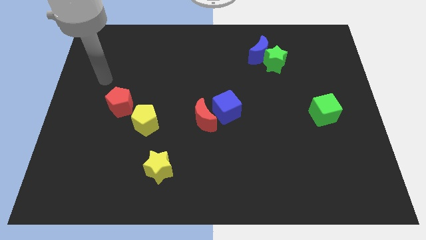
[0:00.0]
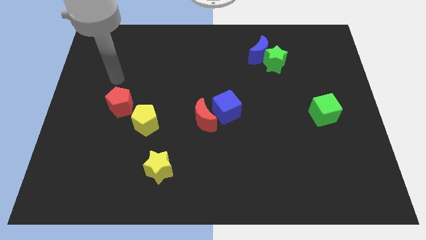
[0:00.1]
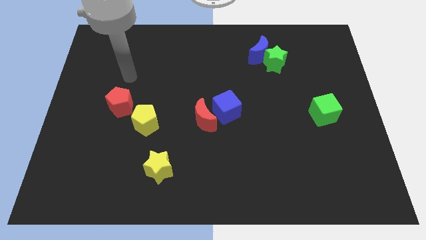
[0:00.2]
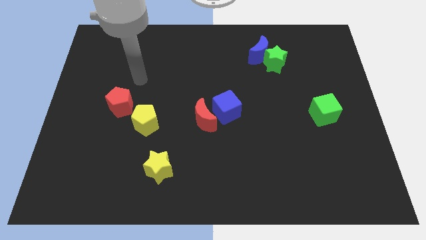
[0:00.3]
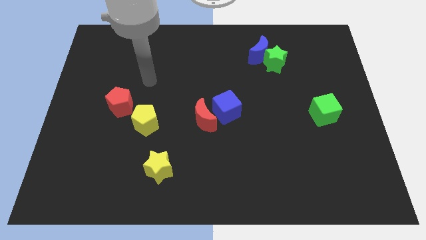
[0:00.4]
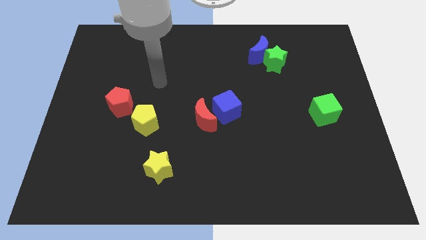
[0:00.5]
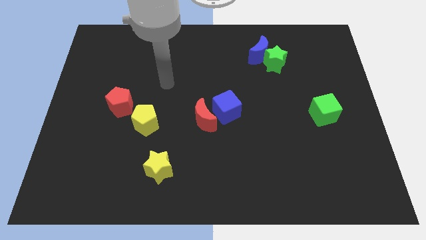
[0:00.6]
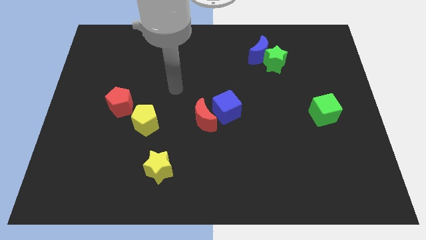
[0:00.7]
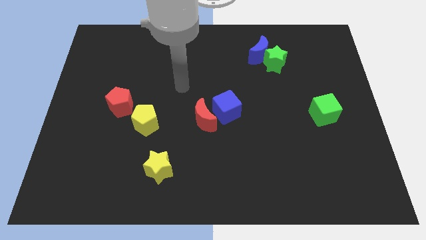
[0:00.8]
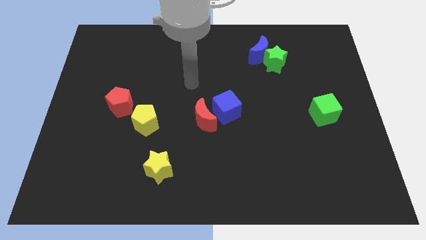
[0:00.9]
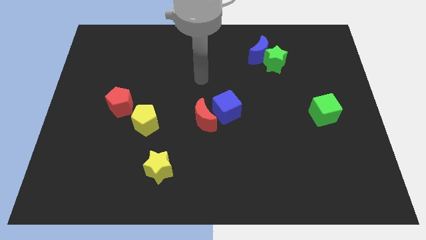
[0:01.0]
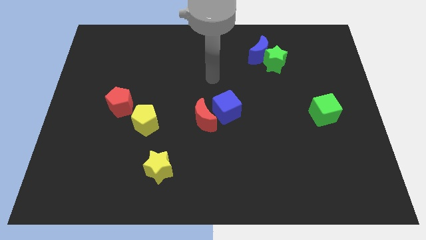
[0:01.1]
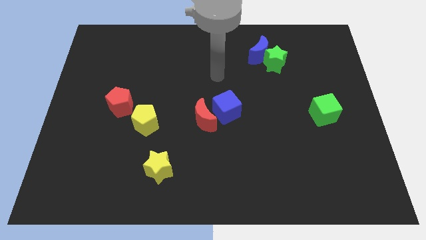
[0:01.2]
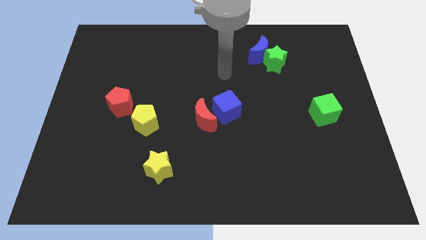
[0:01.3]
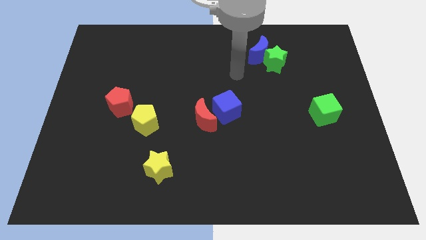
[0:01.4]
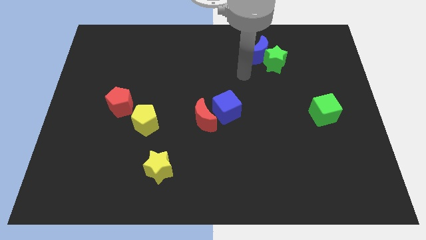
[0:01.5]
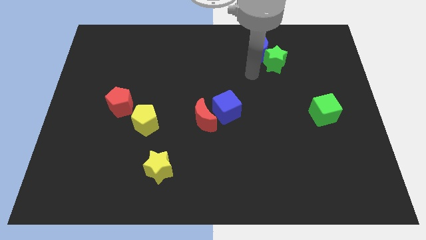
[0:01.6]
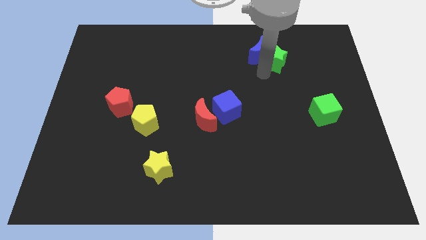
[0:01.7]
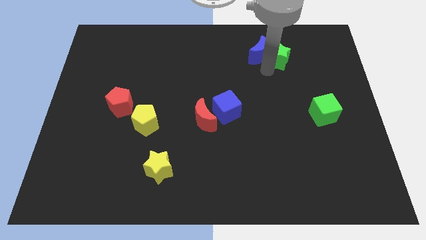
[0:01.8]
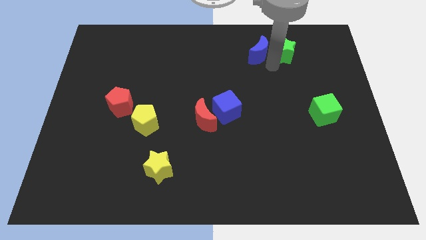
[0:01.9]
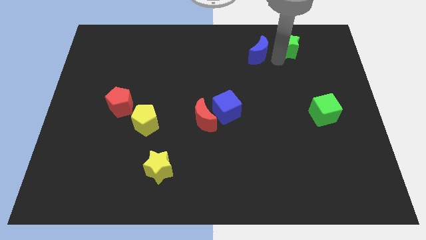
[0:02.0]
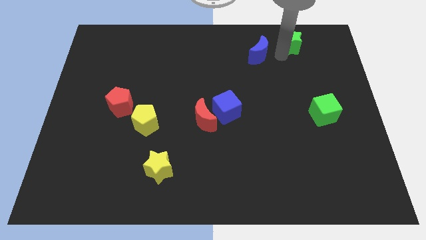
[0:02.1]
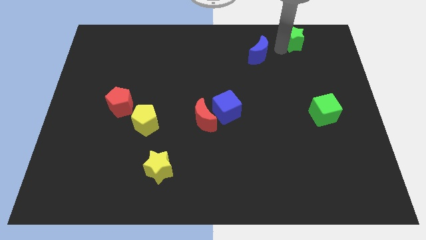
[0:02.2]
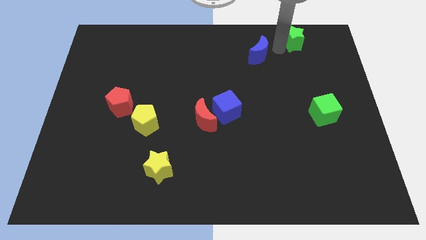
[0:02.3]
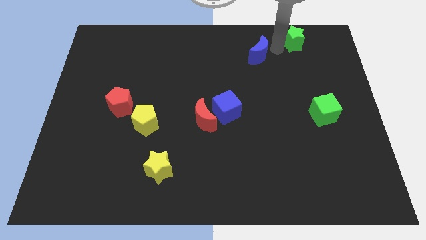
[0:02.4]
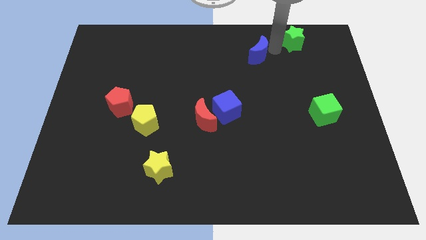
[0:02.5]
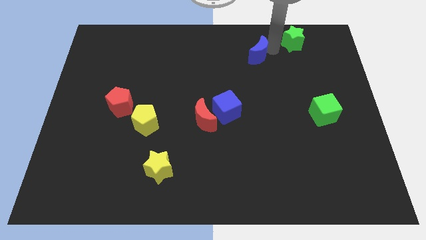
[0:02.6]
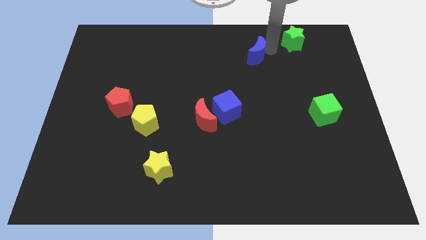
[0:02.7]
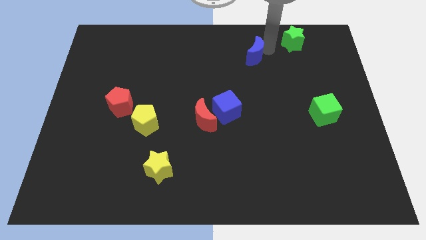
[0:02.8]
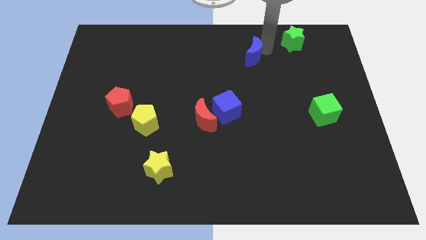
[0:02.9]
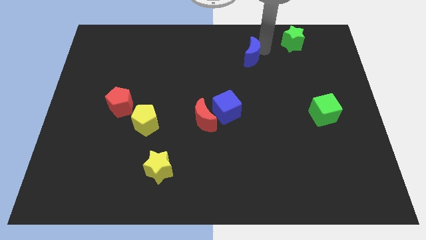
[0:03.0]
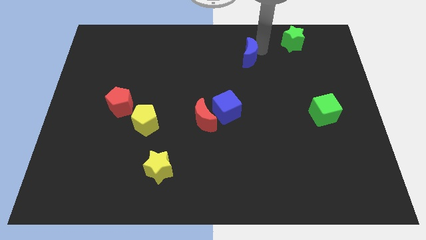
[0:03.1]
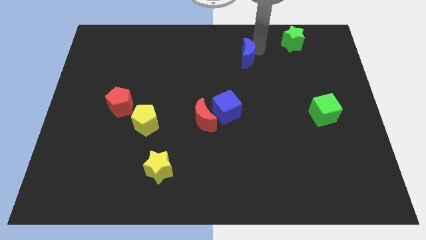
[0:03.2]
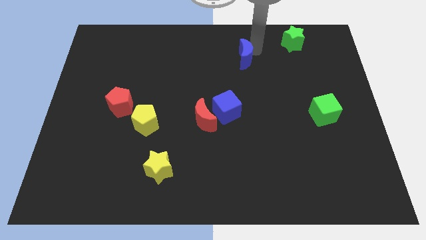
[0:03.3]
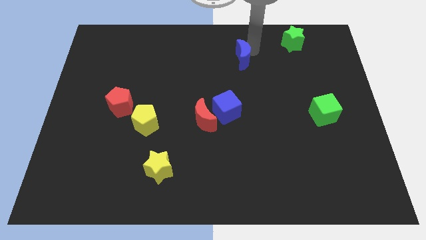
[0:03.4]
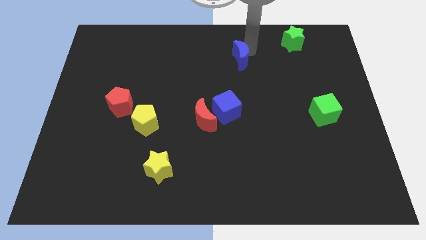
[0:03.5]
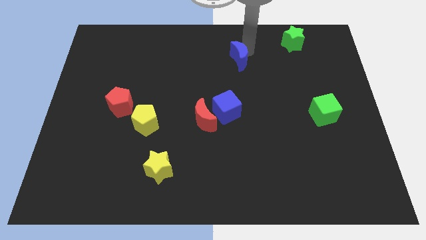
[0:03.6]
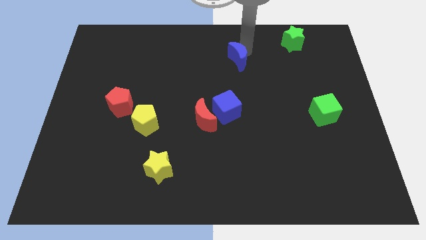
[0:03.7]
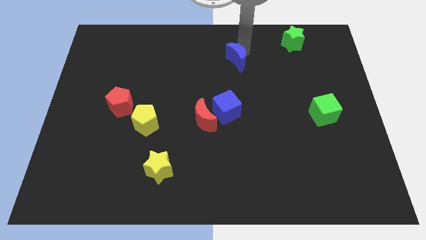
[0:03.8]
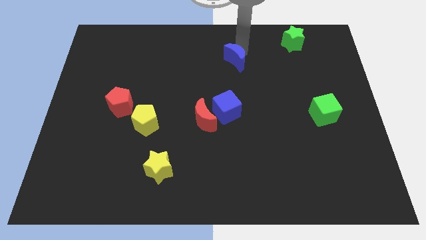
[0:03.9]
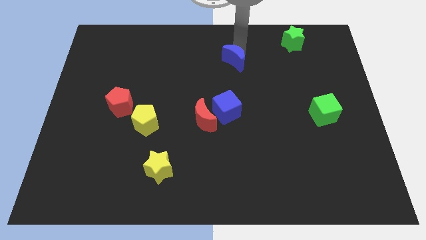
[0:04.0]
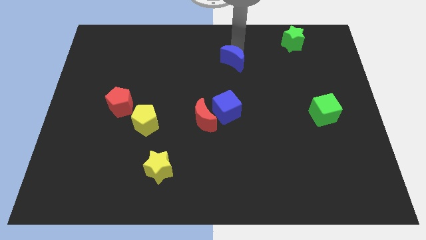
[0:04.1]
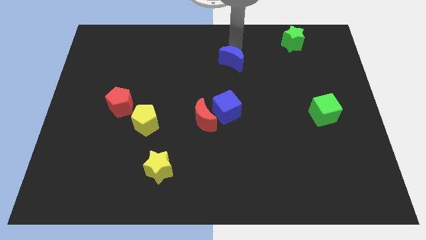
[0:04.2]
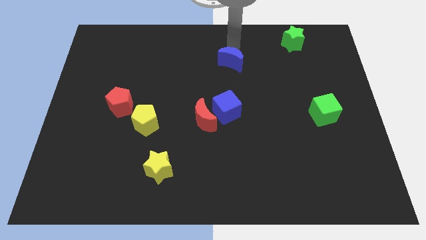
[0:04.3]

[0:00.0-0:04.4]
slide the blue moon a bit diagonally downwards and left

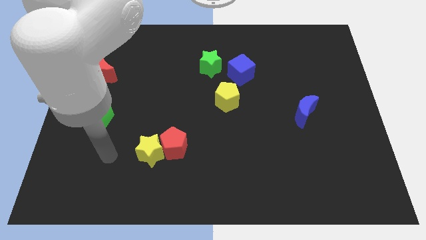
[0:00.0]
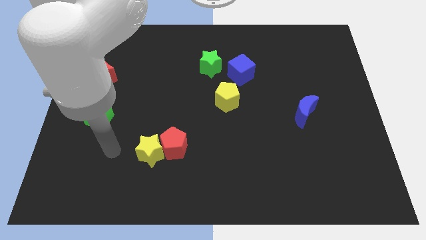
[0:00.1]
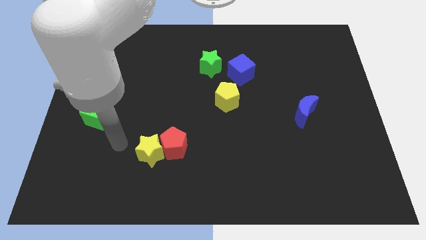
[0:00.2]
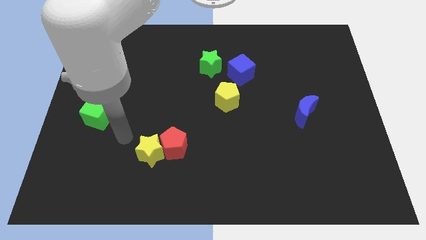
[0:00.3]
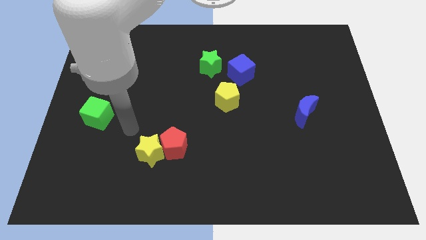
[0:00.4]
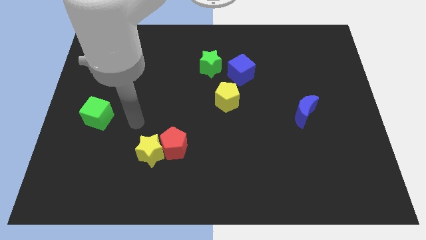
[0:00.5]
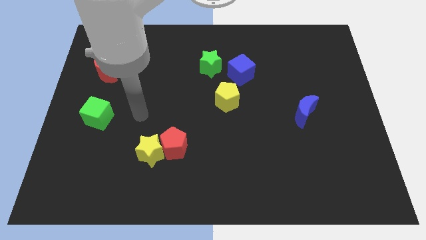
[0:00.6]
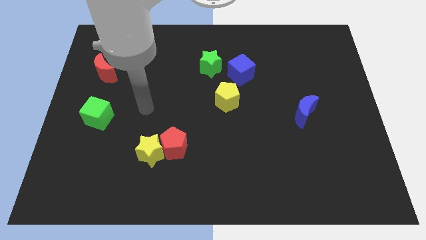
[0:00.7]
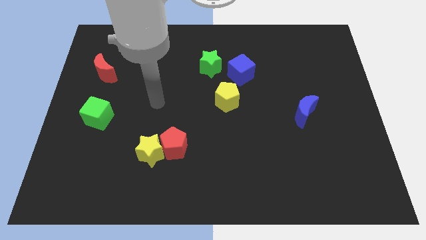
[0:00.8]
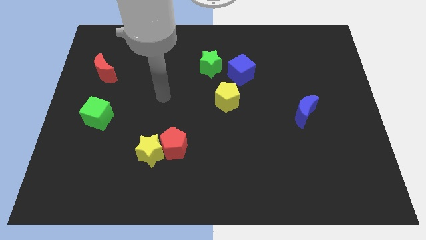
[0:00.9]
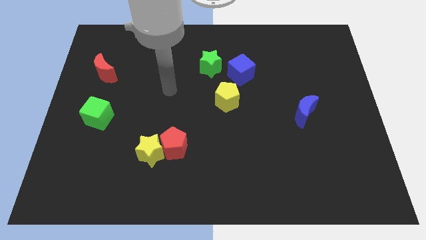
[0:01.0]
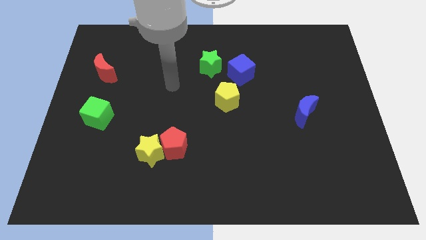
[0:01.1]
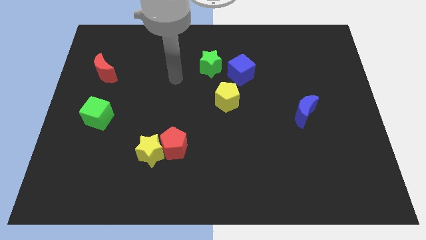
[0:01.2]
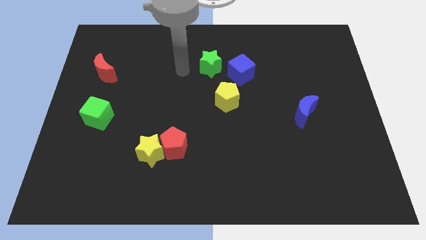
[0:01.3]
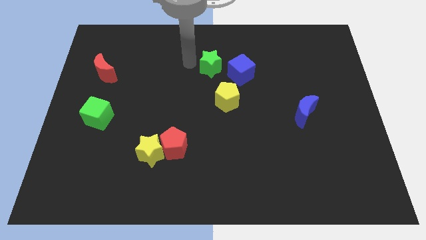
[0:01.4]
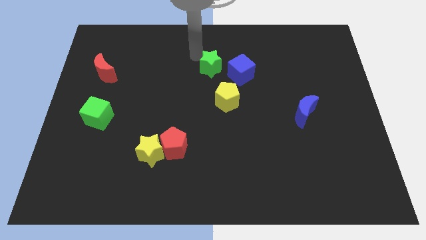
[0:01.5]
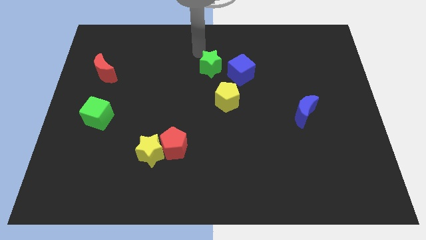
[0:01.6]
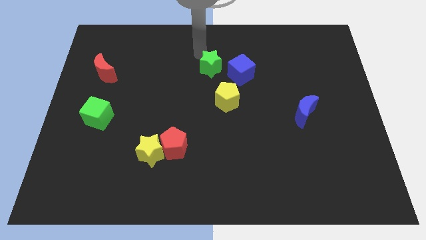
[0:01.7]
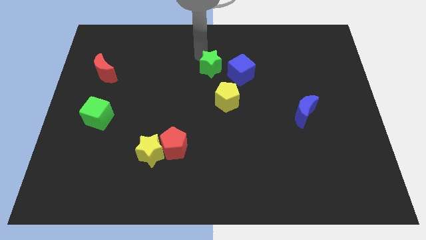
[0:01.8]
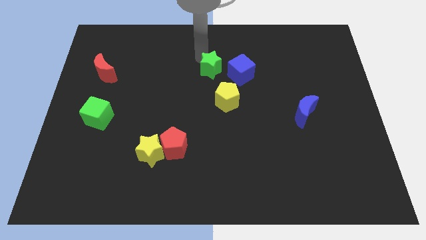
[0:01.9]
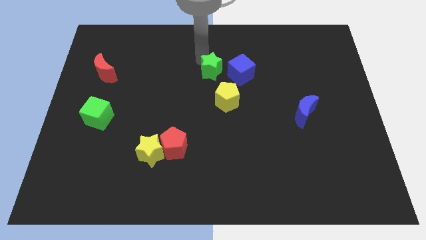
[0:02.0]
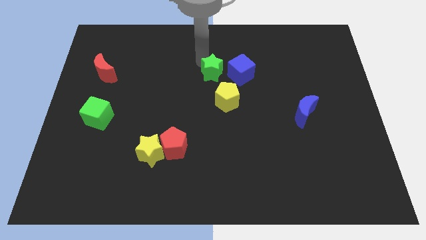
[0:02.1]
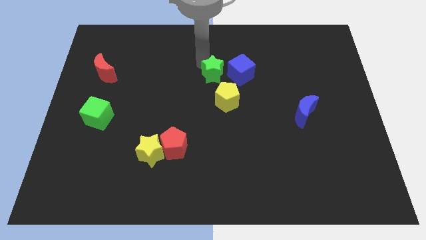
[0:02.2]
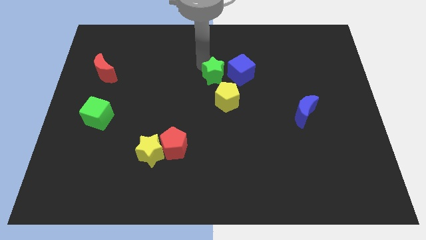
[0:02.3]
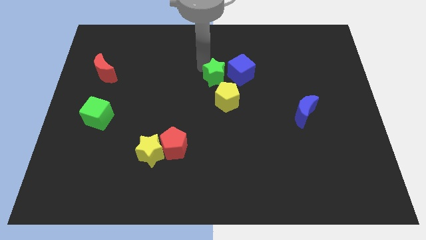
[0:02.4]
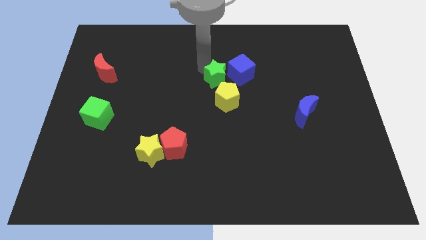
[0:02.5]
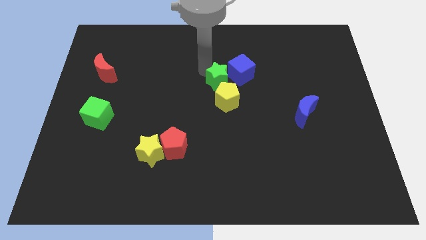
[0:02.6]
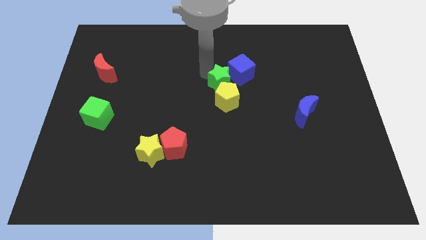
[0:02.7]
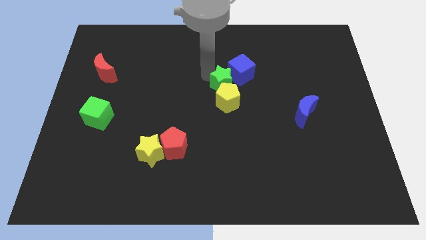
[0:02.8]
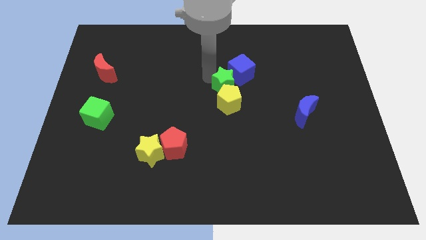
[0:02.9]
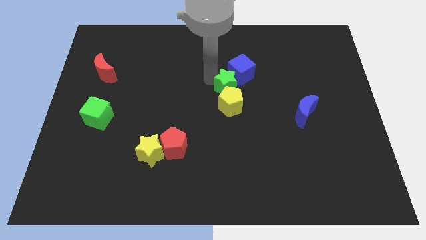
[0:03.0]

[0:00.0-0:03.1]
slightly push the green star downwards and right

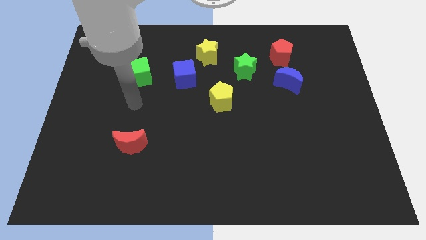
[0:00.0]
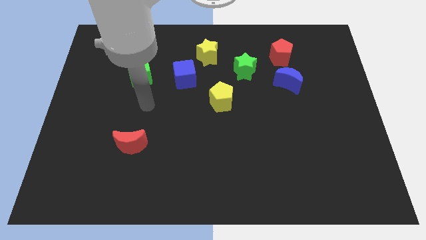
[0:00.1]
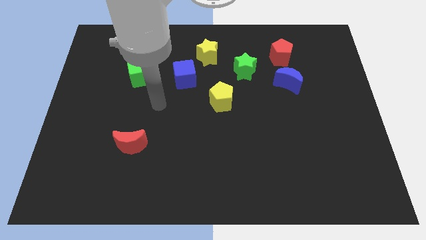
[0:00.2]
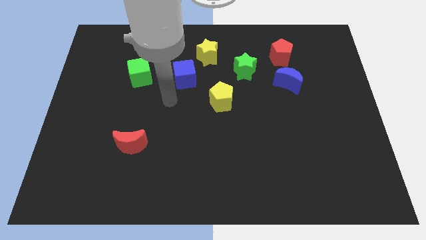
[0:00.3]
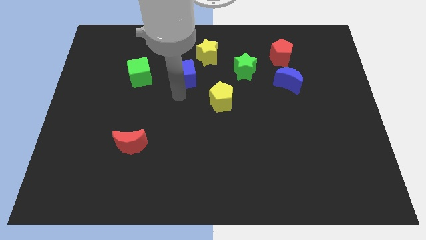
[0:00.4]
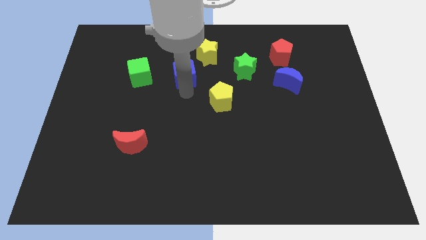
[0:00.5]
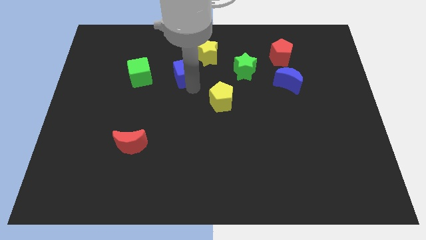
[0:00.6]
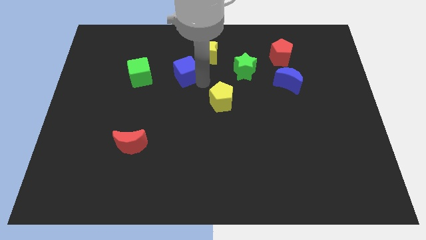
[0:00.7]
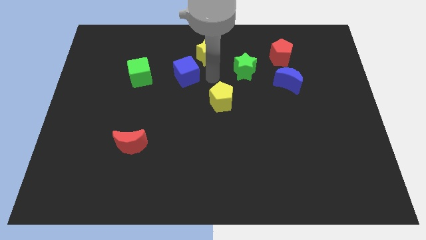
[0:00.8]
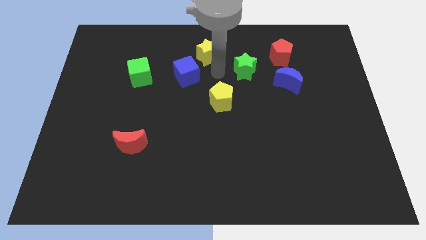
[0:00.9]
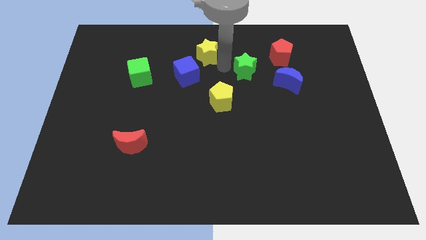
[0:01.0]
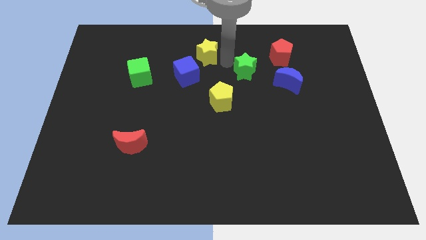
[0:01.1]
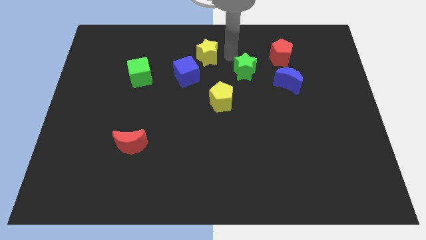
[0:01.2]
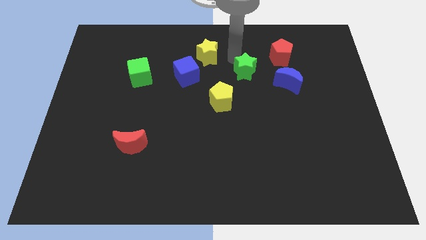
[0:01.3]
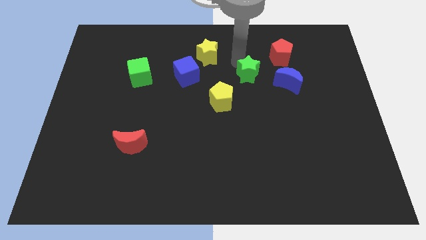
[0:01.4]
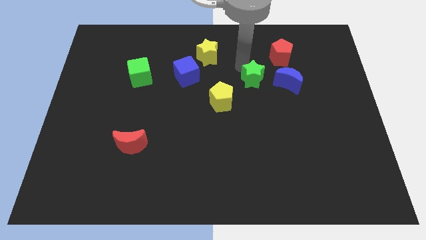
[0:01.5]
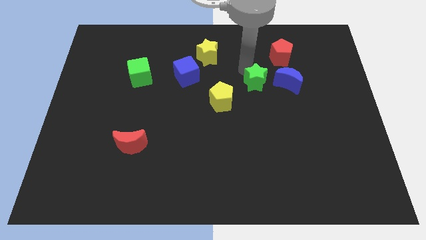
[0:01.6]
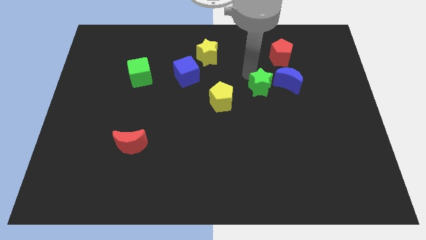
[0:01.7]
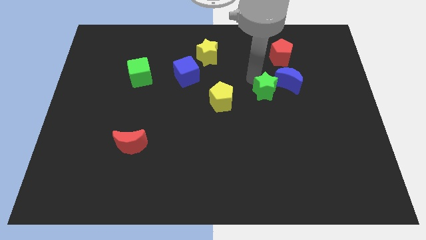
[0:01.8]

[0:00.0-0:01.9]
move the green star diagonally downwards and to the right somewhat
